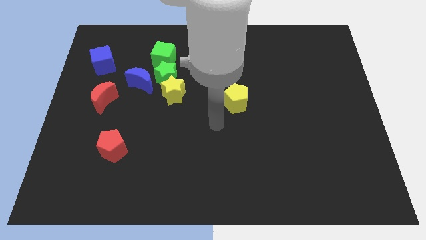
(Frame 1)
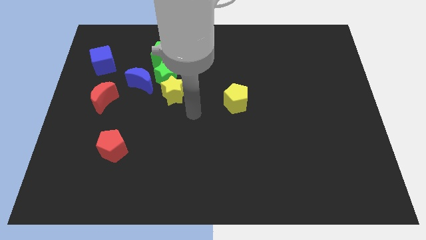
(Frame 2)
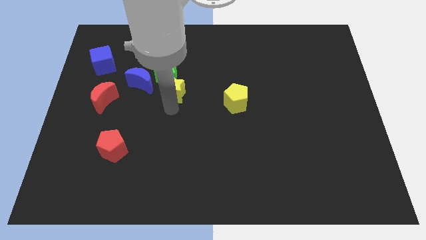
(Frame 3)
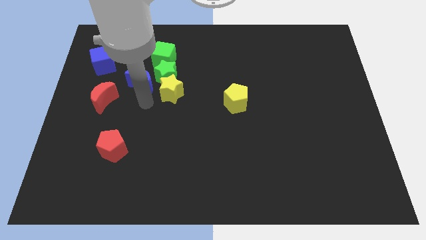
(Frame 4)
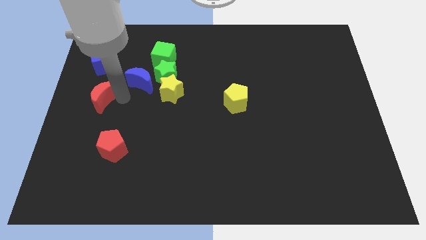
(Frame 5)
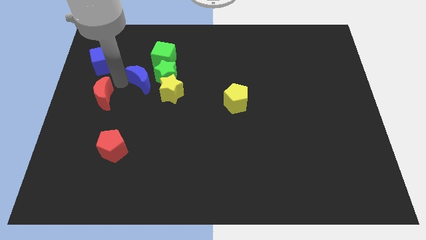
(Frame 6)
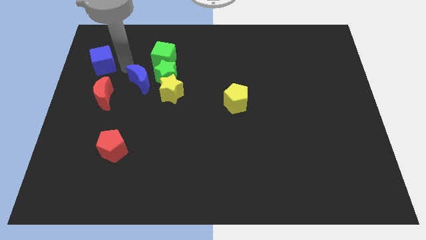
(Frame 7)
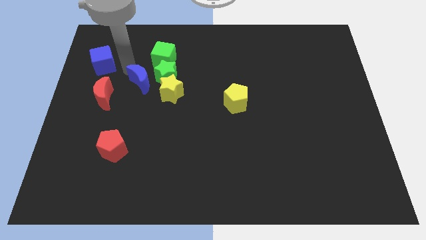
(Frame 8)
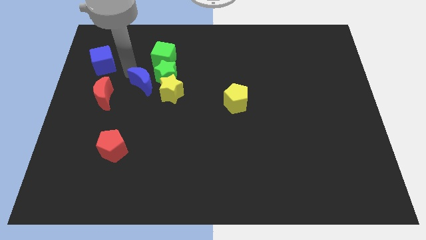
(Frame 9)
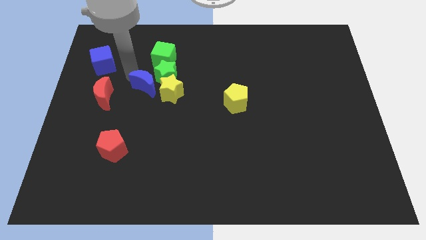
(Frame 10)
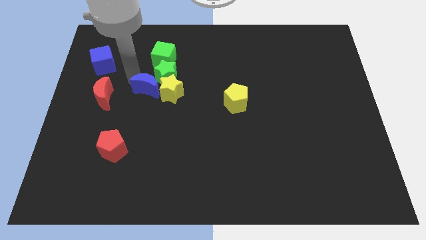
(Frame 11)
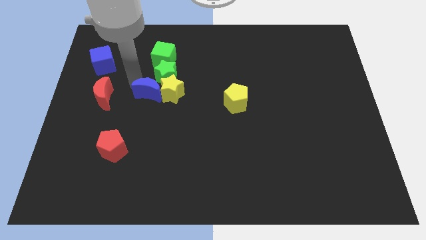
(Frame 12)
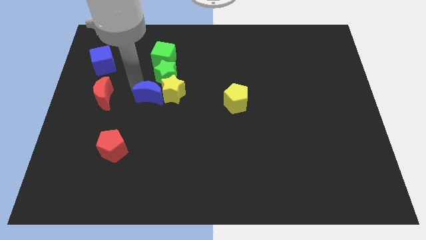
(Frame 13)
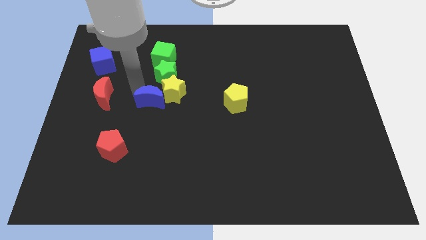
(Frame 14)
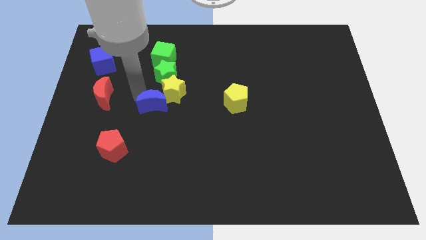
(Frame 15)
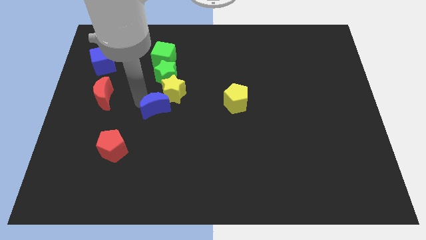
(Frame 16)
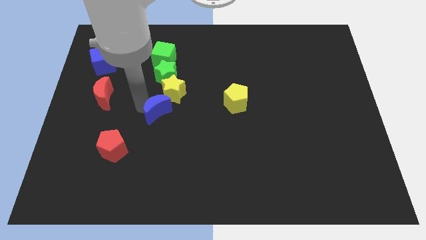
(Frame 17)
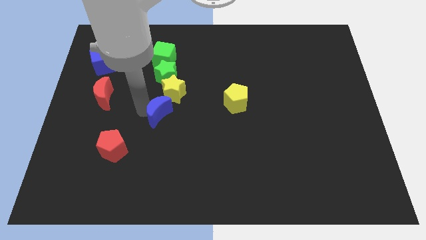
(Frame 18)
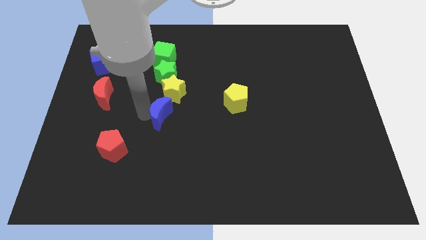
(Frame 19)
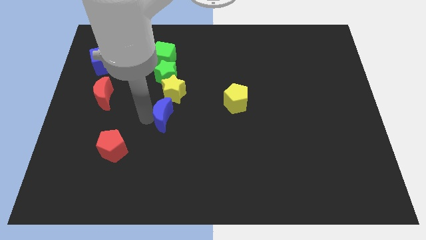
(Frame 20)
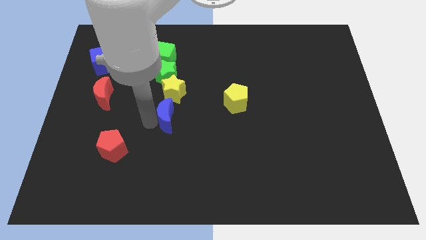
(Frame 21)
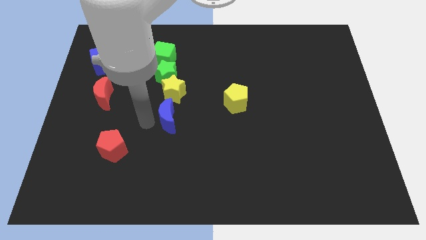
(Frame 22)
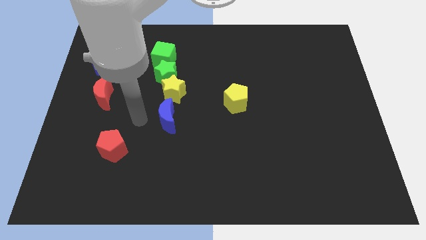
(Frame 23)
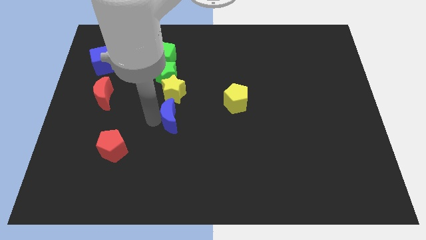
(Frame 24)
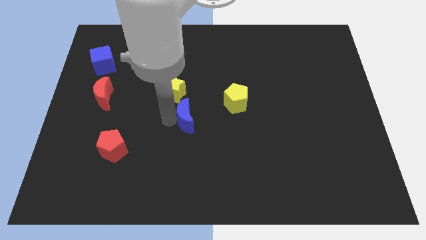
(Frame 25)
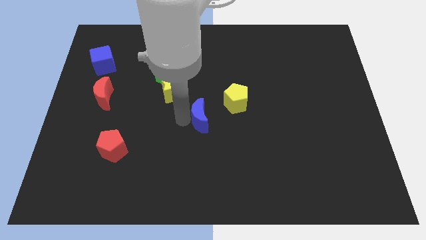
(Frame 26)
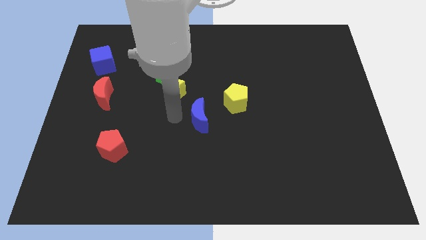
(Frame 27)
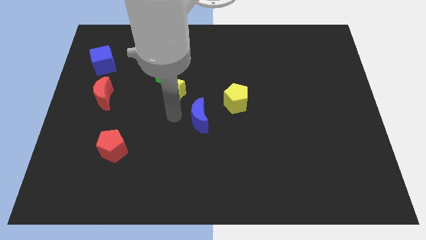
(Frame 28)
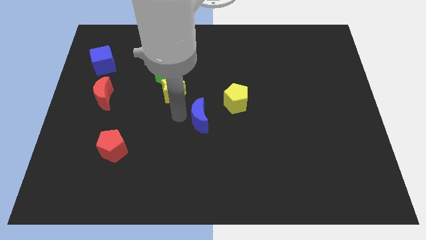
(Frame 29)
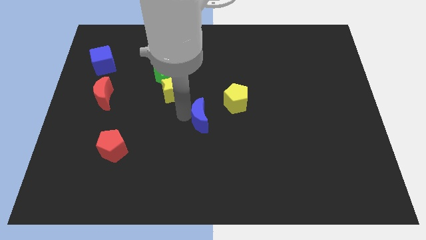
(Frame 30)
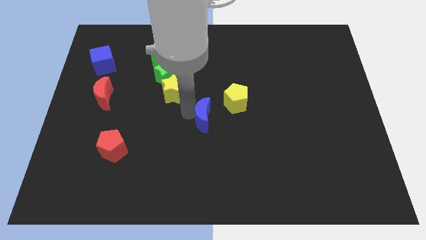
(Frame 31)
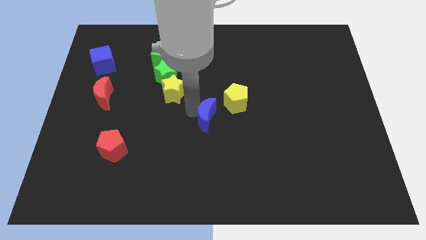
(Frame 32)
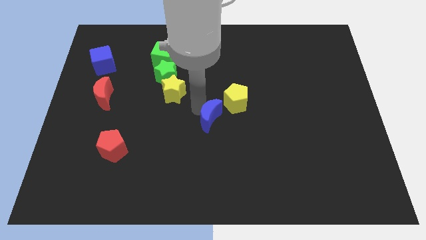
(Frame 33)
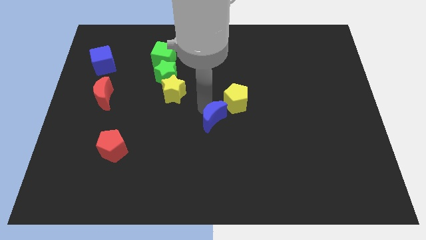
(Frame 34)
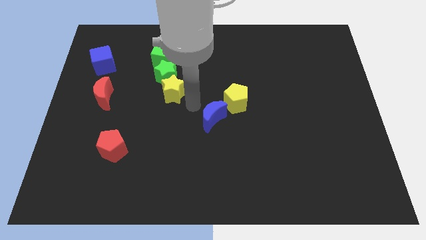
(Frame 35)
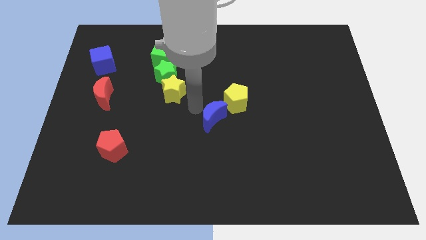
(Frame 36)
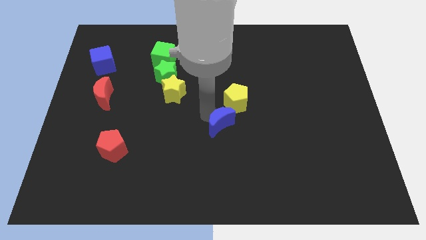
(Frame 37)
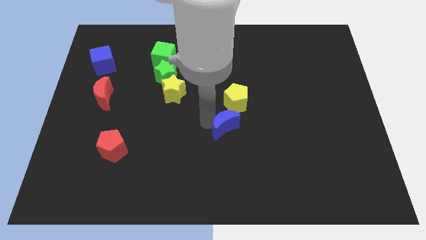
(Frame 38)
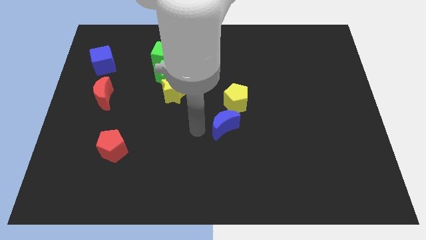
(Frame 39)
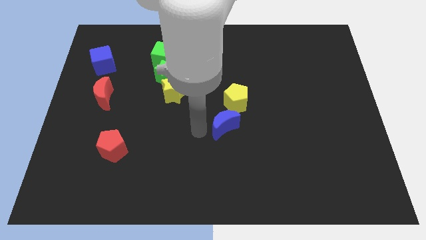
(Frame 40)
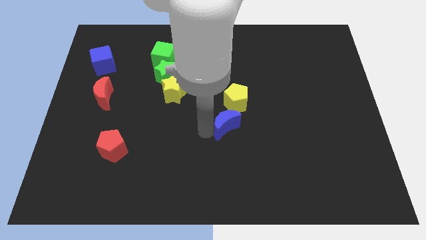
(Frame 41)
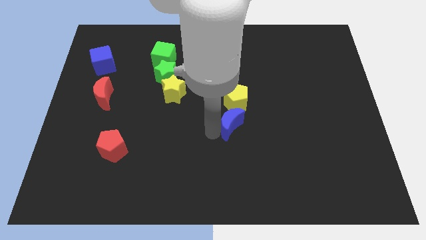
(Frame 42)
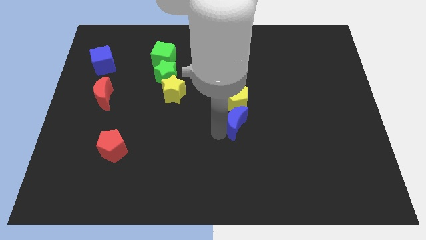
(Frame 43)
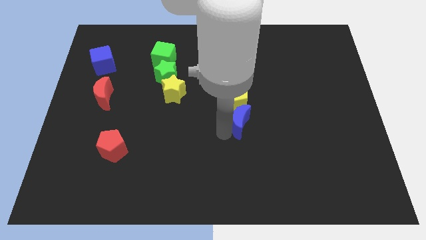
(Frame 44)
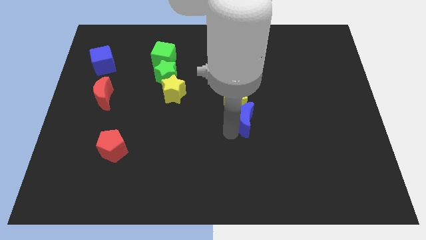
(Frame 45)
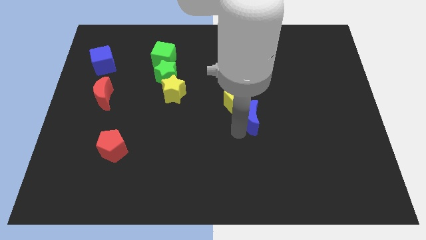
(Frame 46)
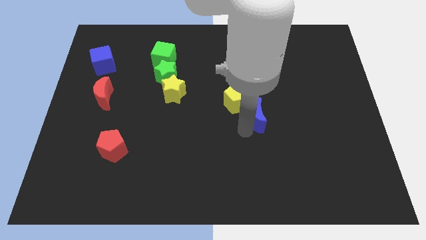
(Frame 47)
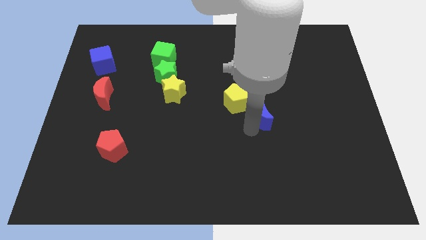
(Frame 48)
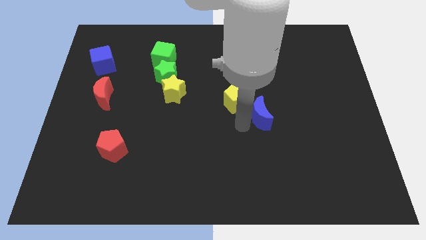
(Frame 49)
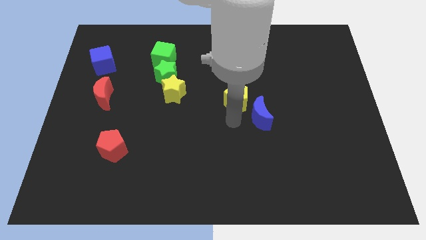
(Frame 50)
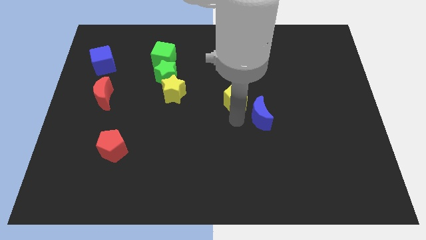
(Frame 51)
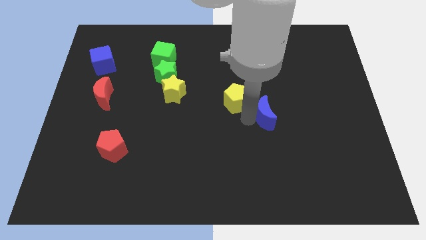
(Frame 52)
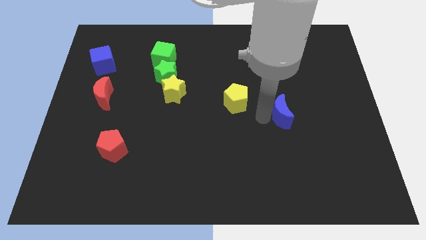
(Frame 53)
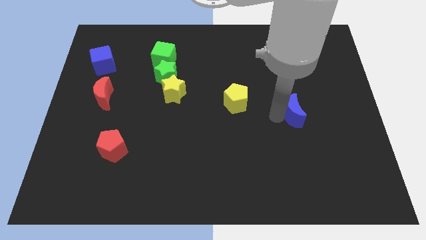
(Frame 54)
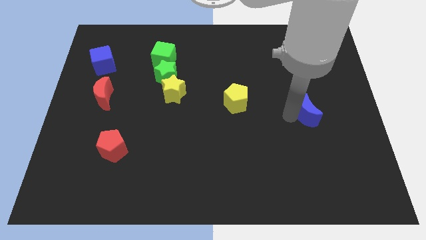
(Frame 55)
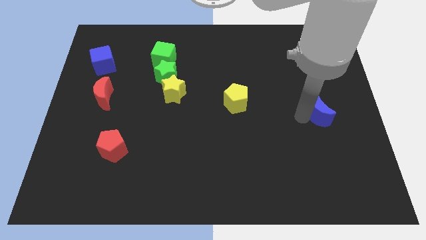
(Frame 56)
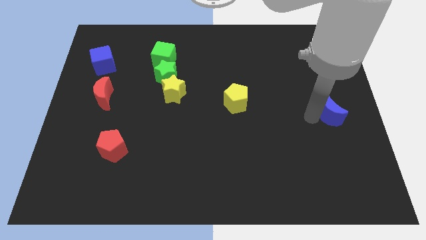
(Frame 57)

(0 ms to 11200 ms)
slide the blue moon to the center right
